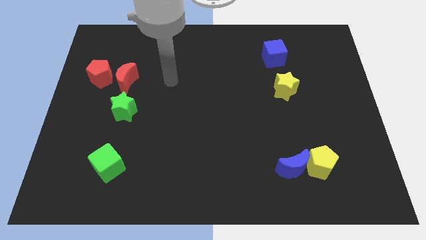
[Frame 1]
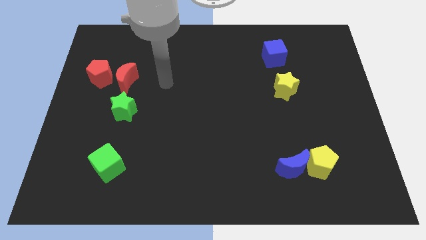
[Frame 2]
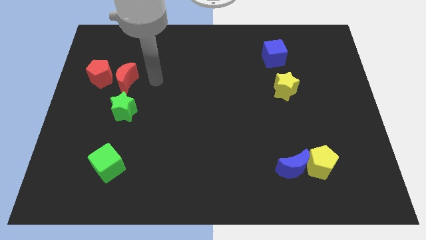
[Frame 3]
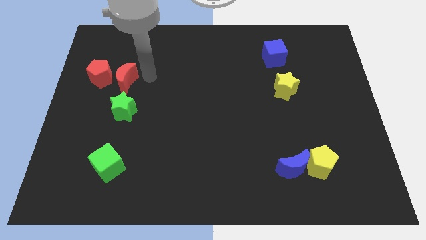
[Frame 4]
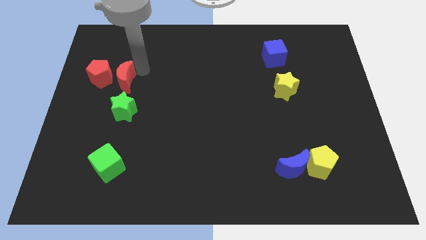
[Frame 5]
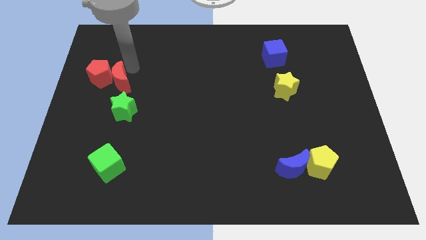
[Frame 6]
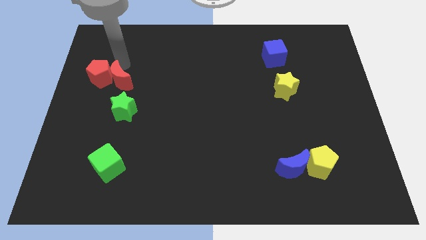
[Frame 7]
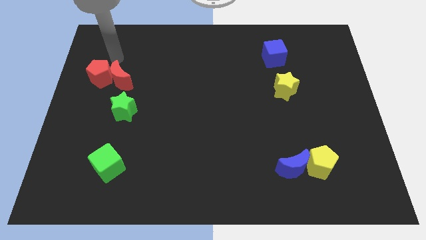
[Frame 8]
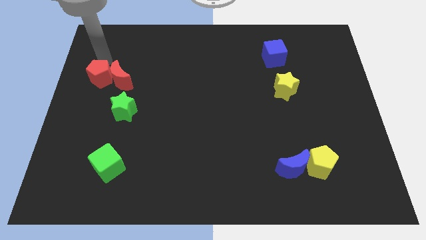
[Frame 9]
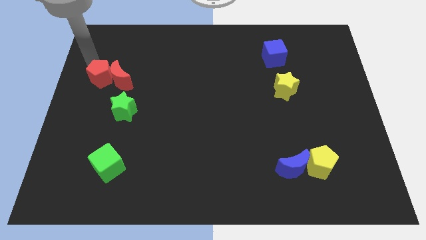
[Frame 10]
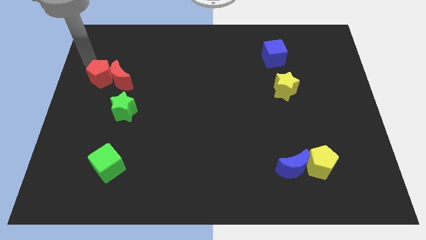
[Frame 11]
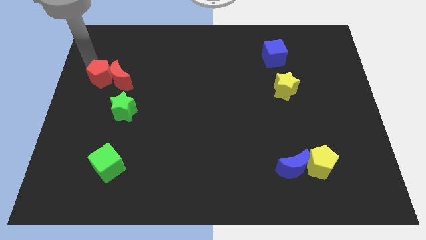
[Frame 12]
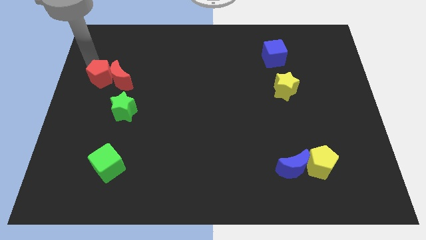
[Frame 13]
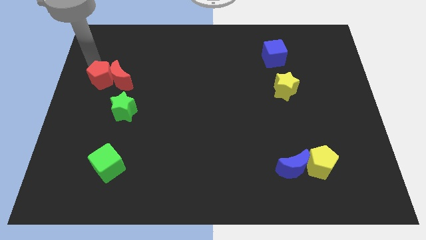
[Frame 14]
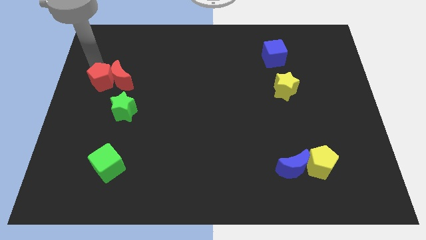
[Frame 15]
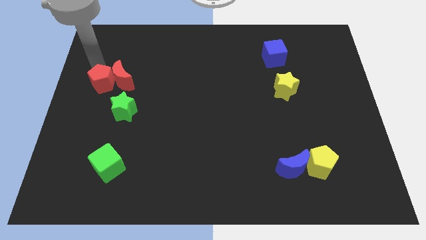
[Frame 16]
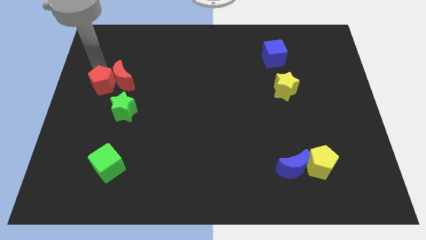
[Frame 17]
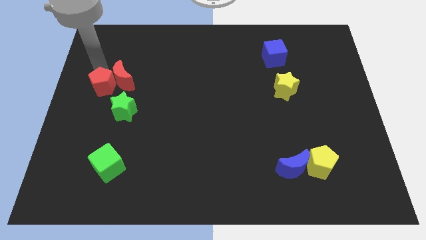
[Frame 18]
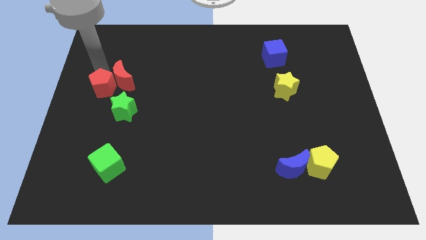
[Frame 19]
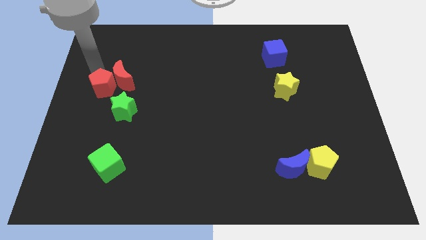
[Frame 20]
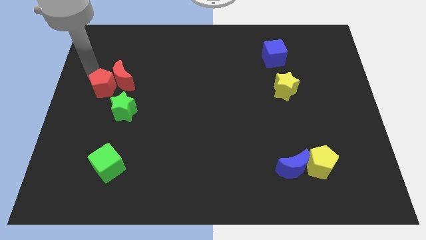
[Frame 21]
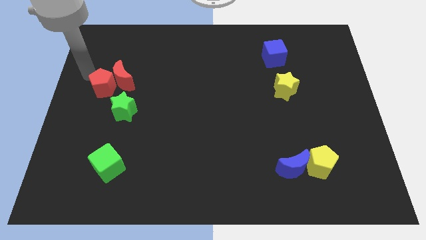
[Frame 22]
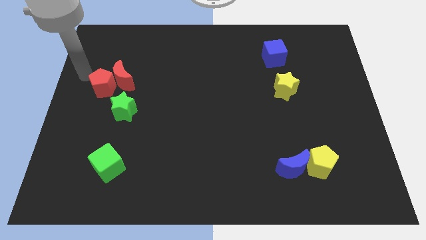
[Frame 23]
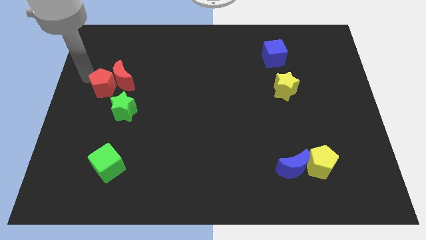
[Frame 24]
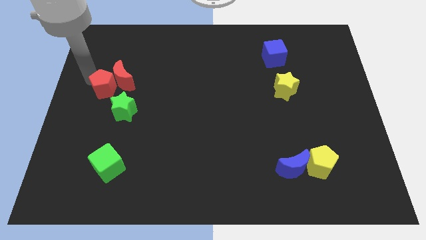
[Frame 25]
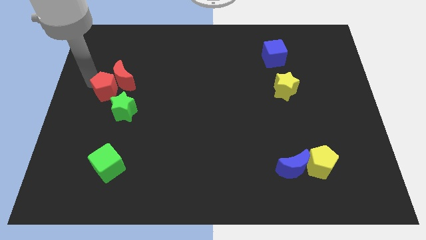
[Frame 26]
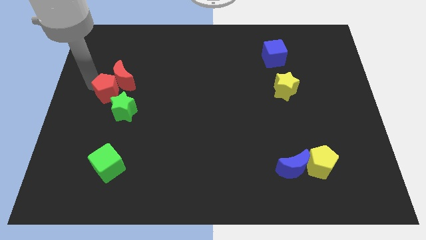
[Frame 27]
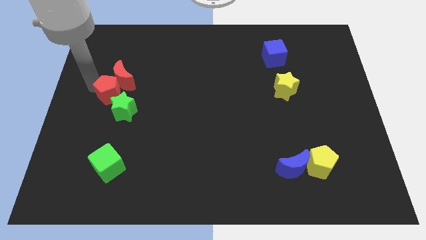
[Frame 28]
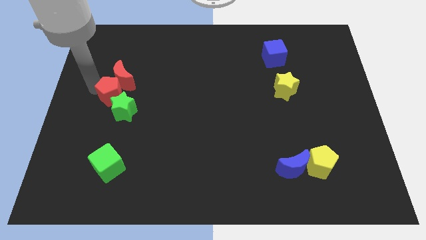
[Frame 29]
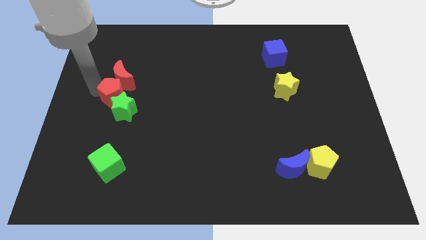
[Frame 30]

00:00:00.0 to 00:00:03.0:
push the red pentagon a little downwards and right diagonally

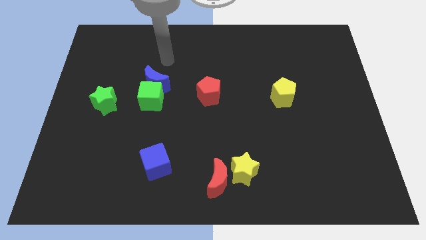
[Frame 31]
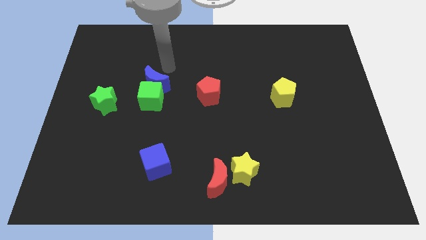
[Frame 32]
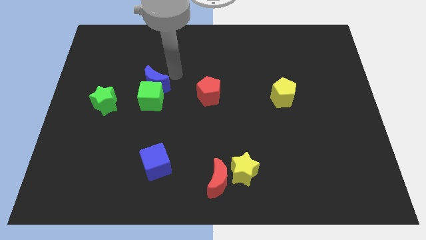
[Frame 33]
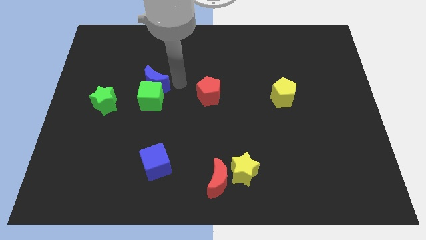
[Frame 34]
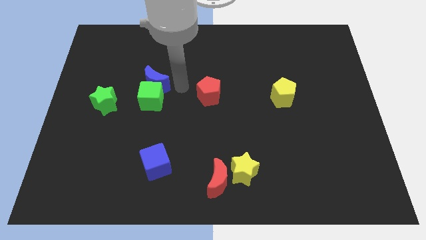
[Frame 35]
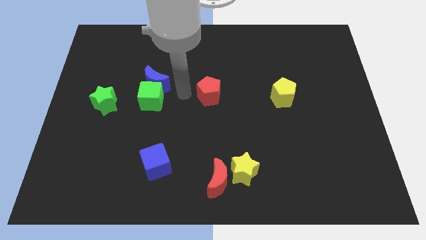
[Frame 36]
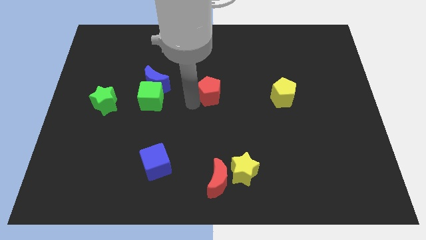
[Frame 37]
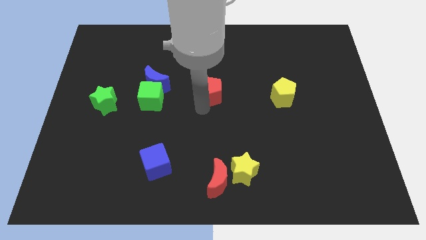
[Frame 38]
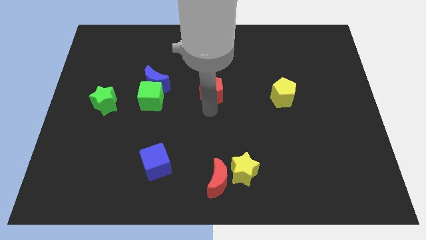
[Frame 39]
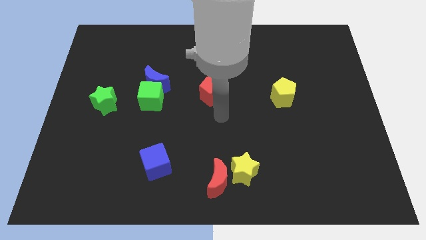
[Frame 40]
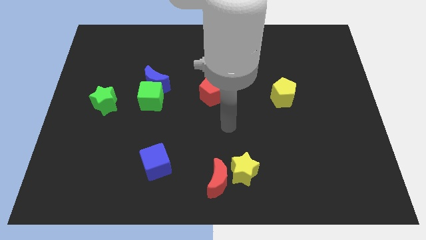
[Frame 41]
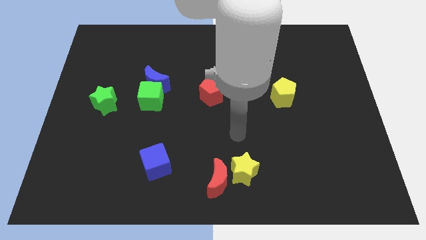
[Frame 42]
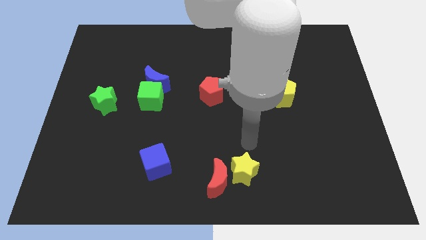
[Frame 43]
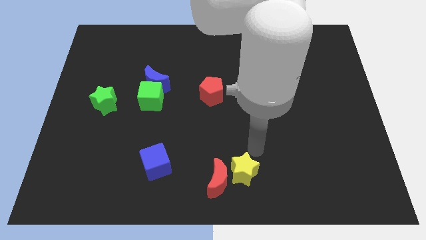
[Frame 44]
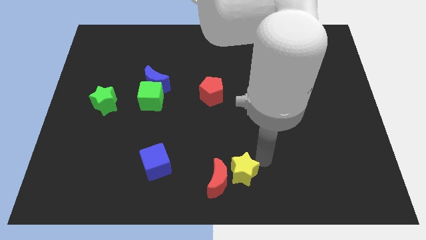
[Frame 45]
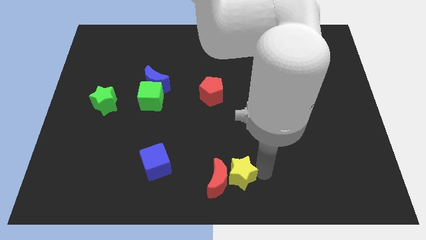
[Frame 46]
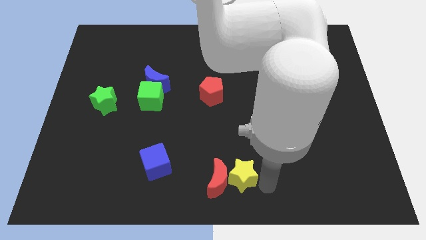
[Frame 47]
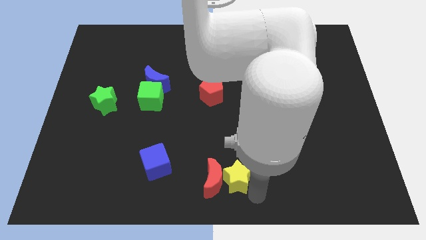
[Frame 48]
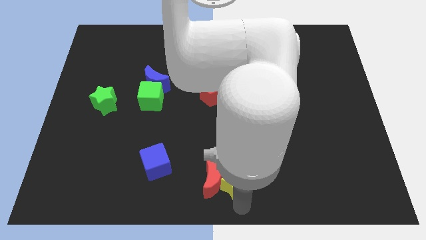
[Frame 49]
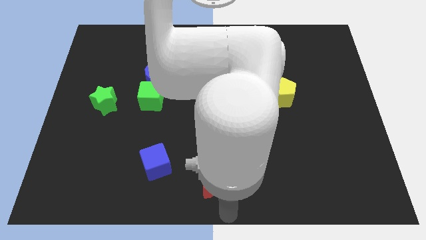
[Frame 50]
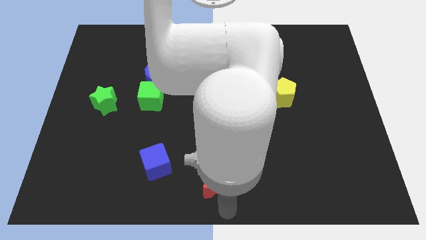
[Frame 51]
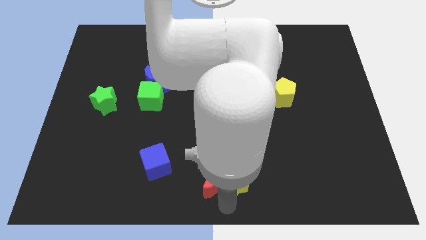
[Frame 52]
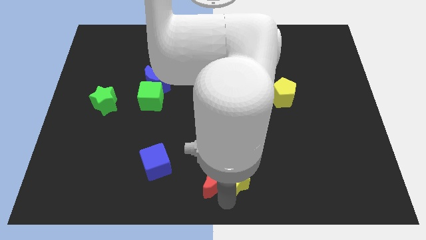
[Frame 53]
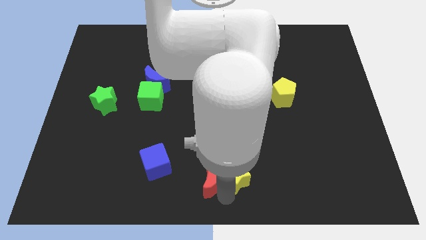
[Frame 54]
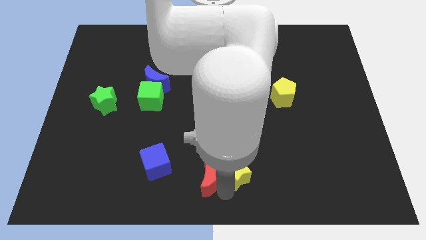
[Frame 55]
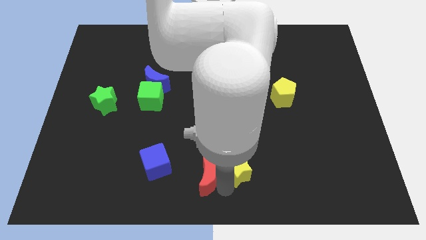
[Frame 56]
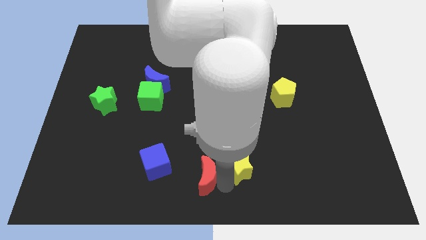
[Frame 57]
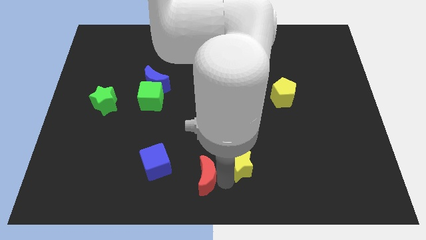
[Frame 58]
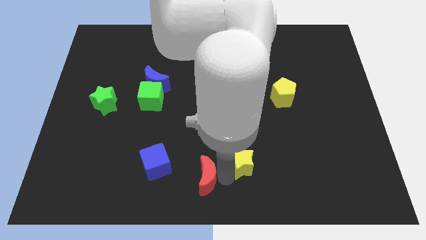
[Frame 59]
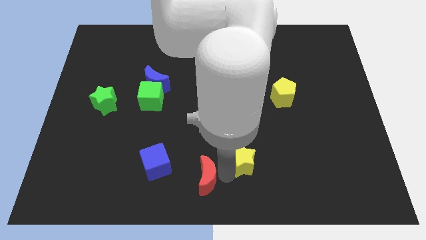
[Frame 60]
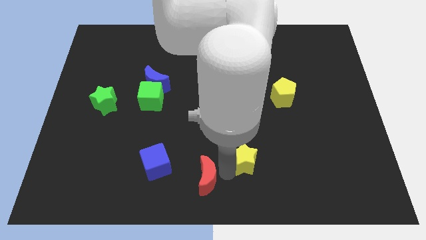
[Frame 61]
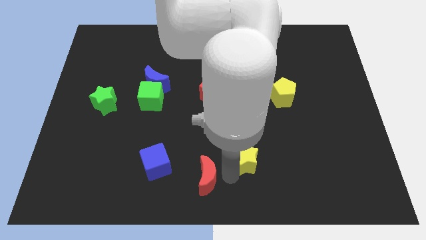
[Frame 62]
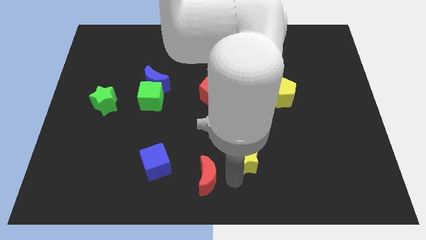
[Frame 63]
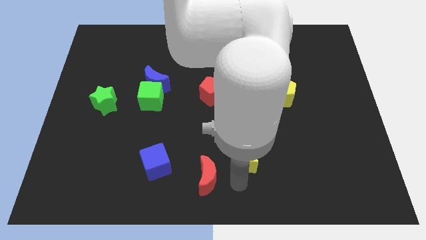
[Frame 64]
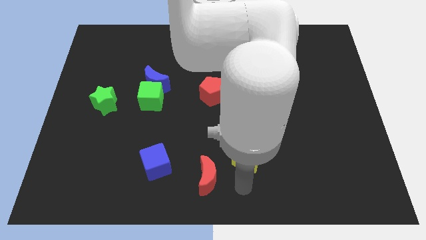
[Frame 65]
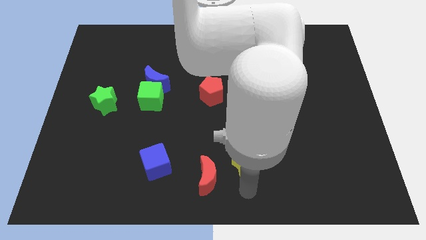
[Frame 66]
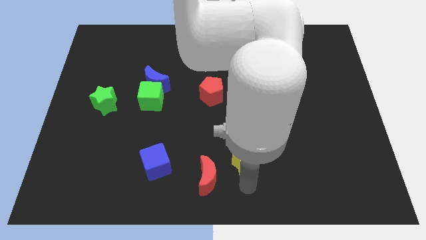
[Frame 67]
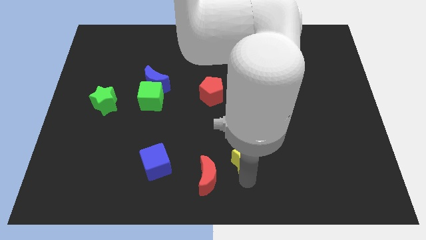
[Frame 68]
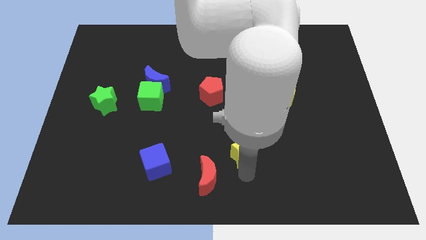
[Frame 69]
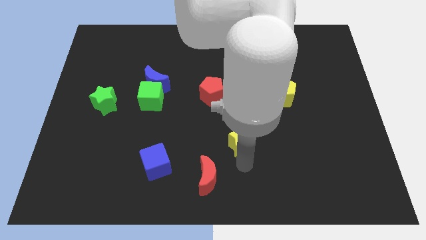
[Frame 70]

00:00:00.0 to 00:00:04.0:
move the yellow star a bit up

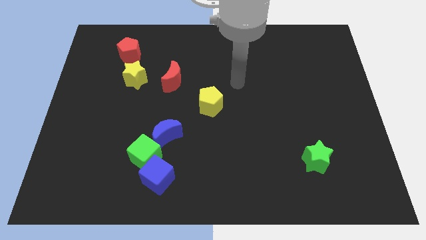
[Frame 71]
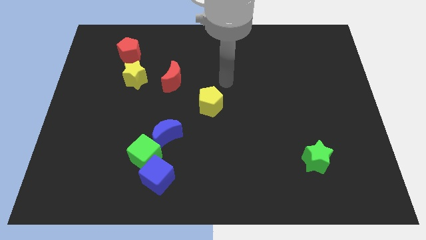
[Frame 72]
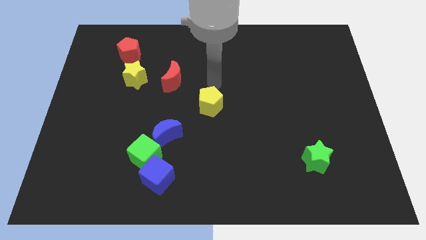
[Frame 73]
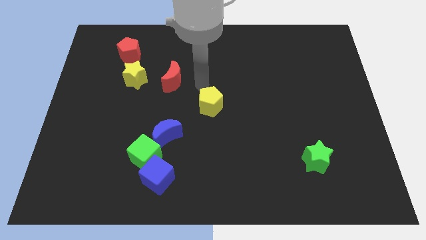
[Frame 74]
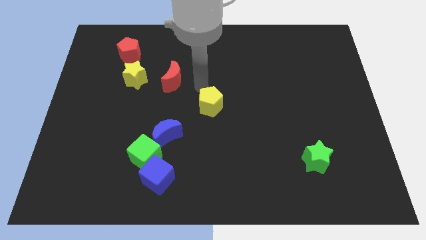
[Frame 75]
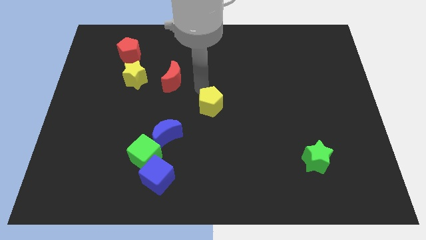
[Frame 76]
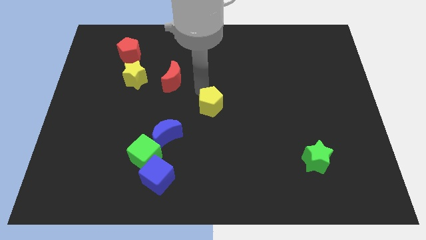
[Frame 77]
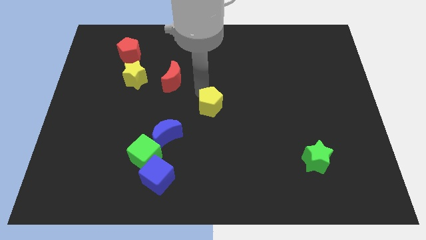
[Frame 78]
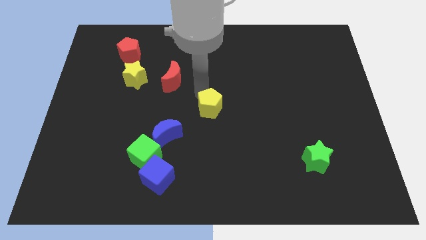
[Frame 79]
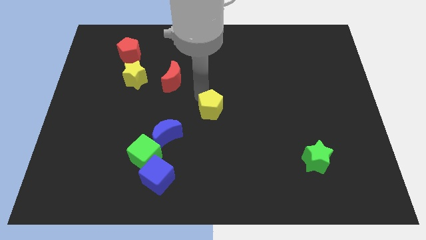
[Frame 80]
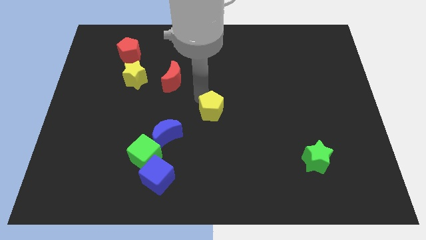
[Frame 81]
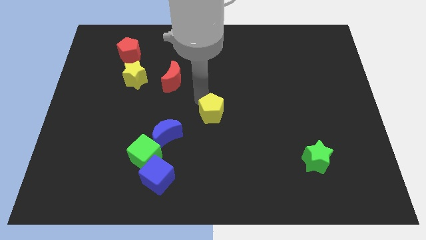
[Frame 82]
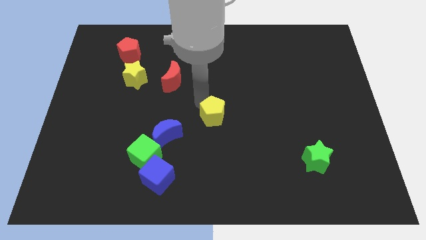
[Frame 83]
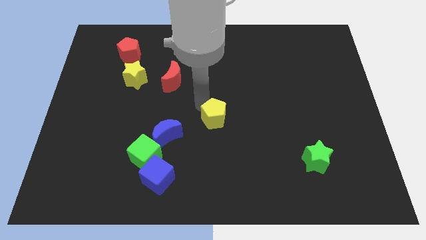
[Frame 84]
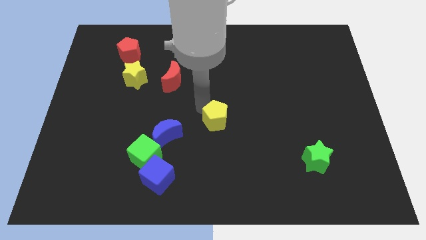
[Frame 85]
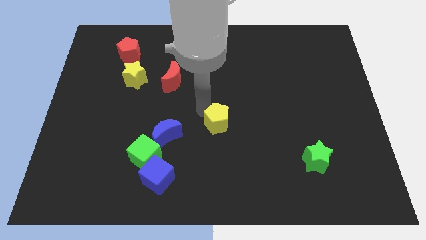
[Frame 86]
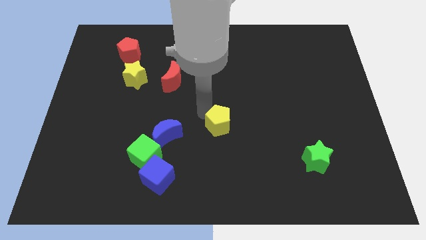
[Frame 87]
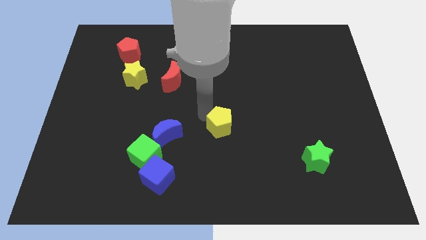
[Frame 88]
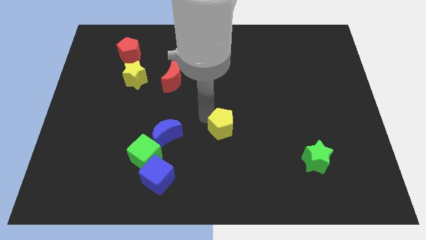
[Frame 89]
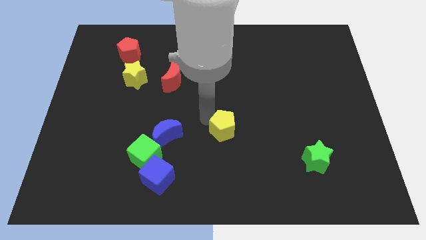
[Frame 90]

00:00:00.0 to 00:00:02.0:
slightly slide the yellow pentagon diagonally downwards and to the right
